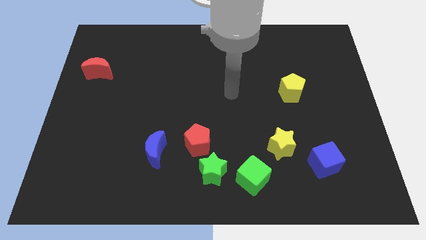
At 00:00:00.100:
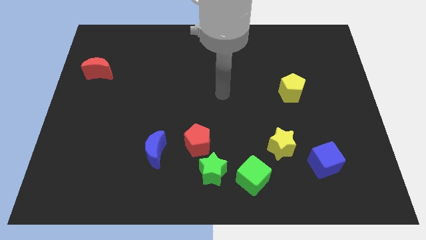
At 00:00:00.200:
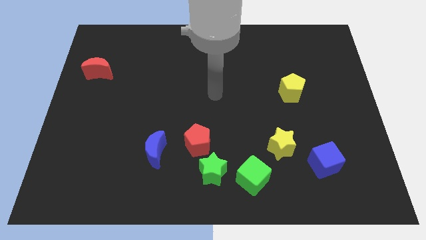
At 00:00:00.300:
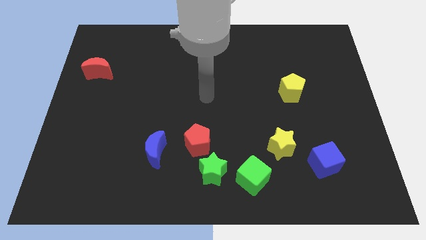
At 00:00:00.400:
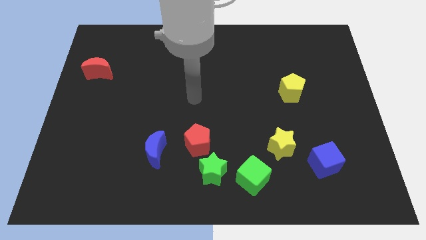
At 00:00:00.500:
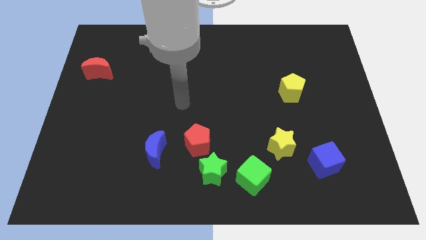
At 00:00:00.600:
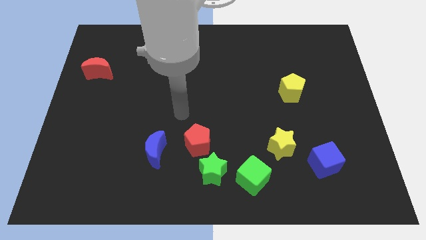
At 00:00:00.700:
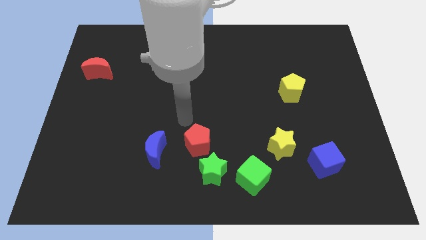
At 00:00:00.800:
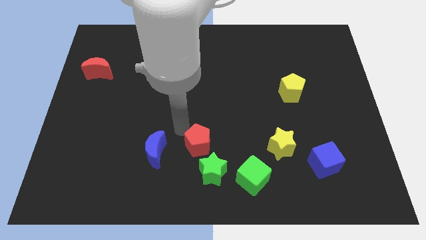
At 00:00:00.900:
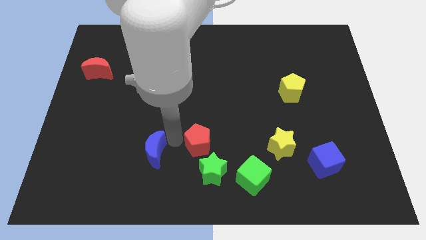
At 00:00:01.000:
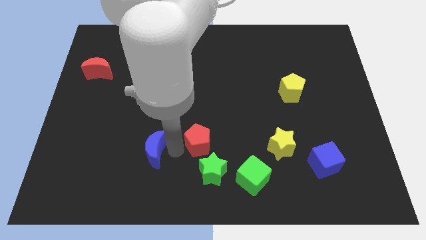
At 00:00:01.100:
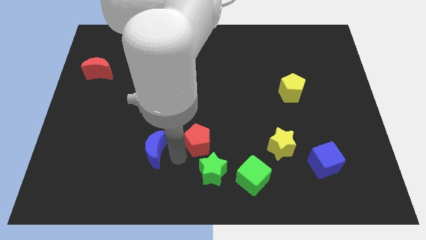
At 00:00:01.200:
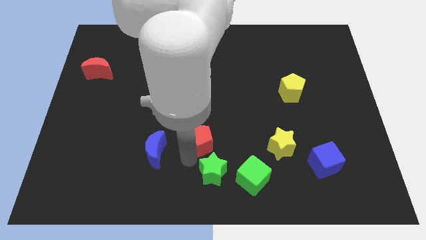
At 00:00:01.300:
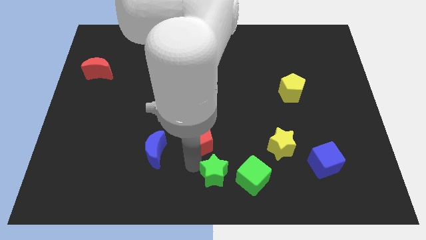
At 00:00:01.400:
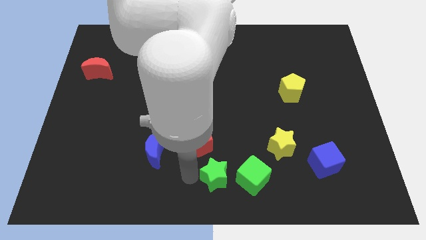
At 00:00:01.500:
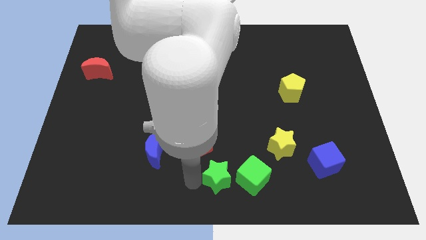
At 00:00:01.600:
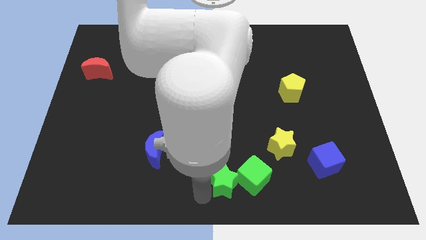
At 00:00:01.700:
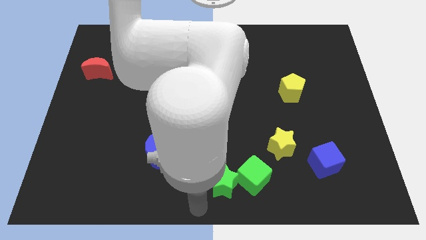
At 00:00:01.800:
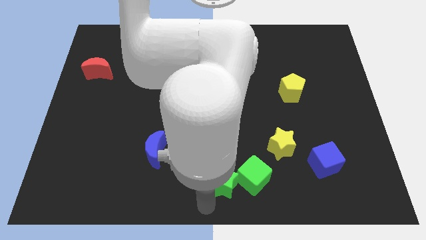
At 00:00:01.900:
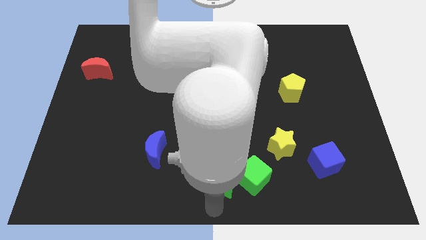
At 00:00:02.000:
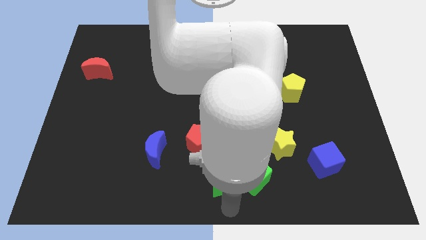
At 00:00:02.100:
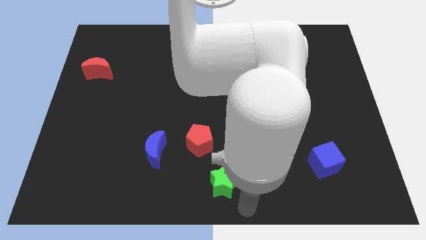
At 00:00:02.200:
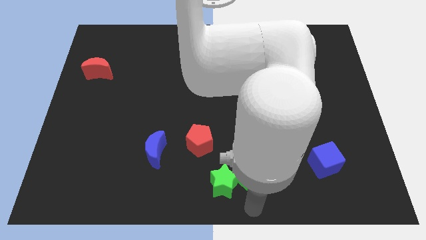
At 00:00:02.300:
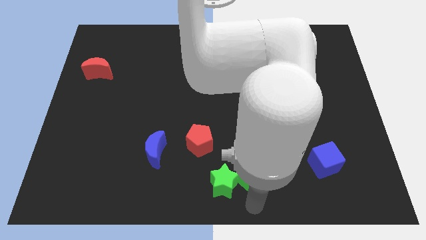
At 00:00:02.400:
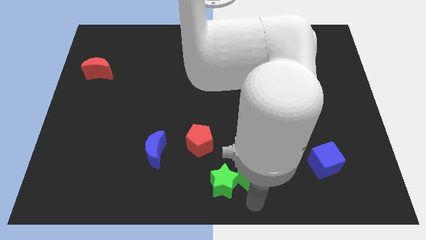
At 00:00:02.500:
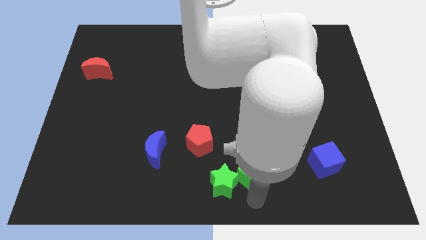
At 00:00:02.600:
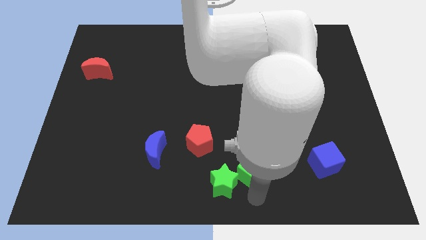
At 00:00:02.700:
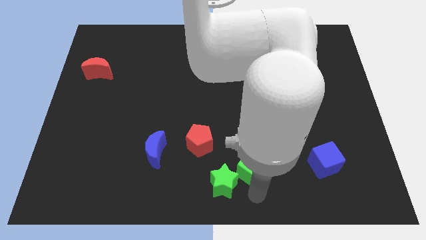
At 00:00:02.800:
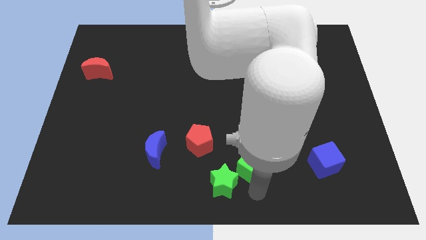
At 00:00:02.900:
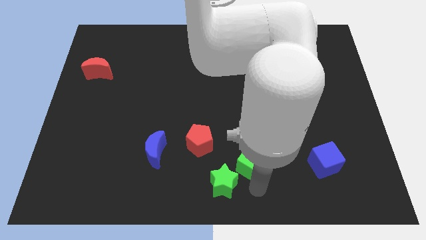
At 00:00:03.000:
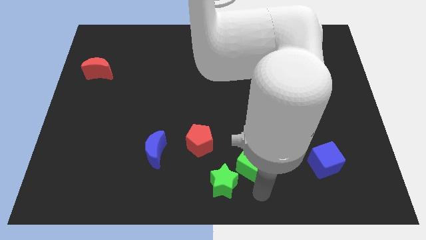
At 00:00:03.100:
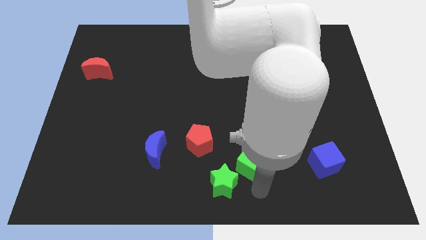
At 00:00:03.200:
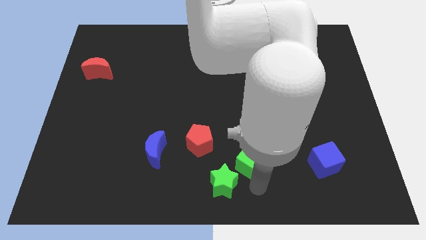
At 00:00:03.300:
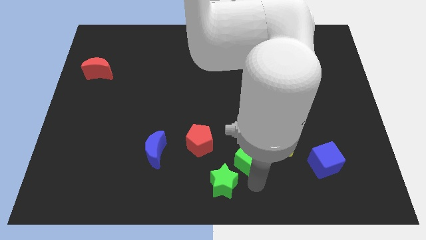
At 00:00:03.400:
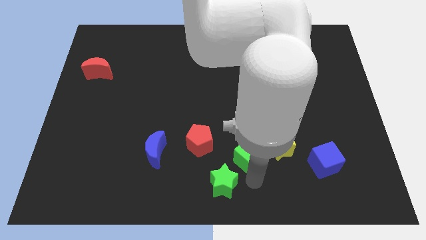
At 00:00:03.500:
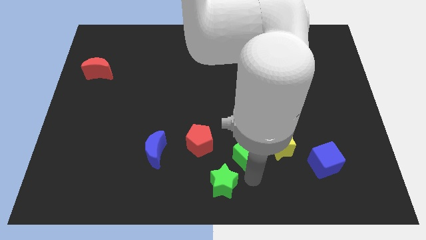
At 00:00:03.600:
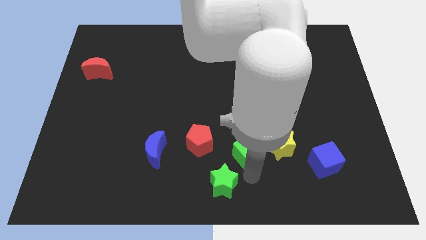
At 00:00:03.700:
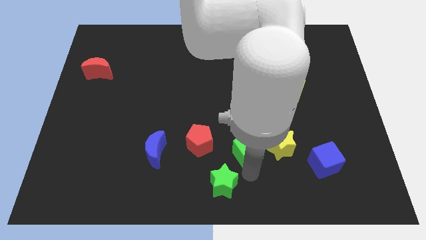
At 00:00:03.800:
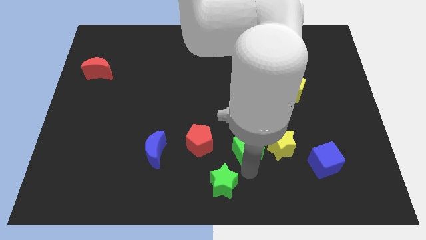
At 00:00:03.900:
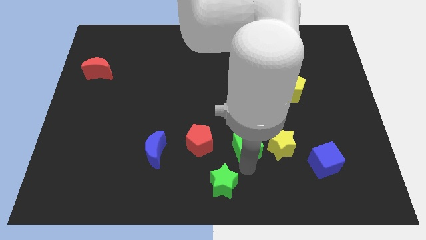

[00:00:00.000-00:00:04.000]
slide the green cube a little bit up

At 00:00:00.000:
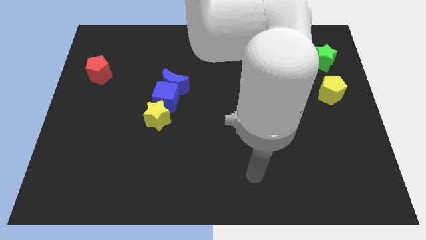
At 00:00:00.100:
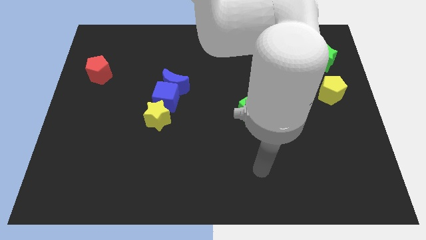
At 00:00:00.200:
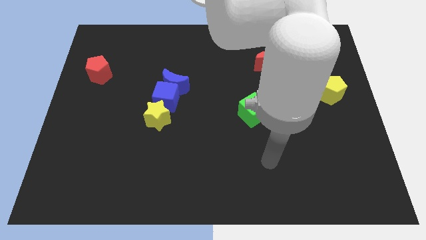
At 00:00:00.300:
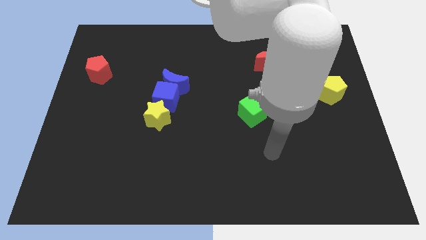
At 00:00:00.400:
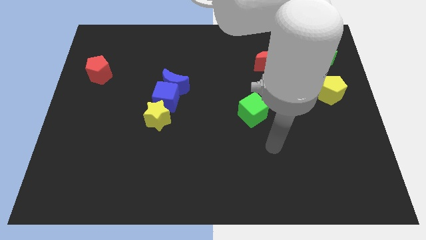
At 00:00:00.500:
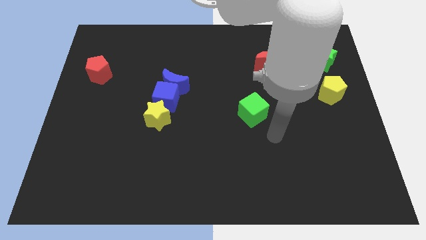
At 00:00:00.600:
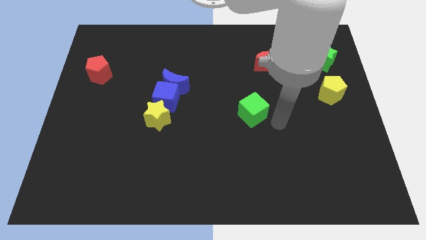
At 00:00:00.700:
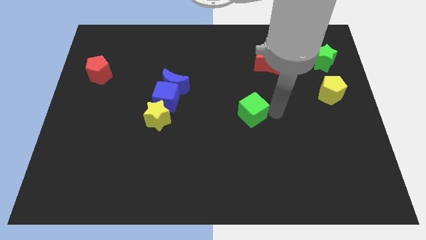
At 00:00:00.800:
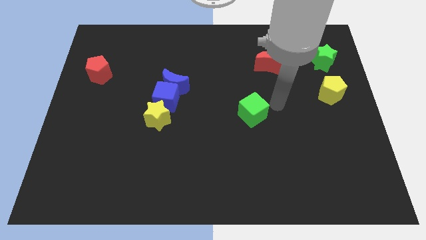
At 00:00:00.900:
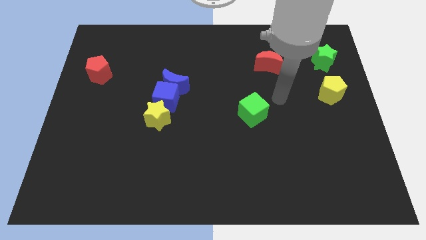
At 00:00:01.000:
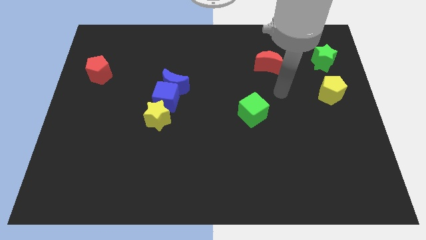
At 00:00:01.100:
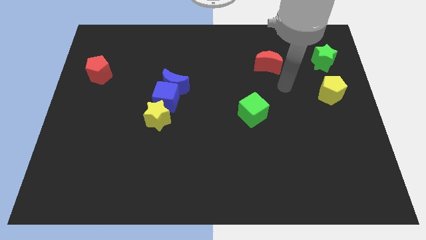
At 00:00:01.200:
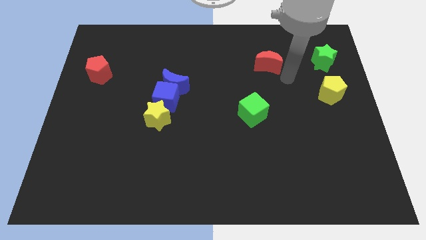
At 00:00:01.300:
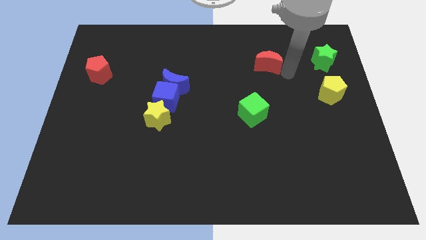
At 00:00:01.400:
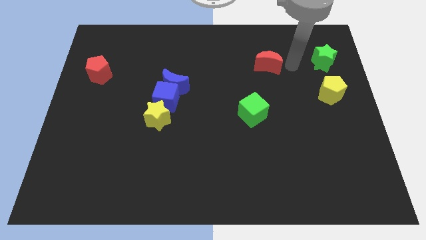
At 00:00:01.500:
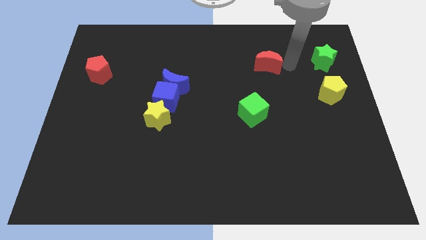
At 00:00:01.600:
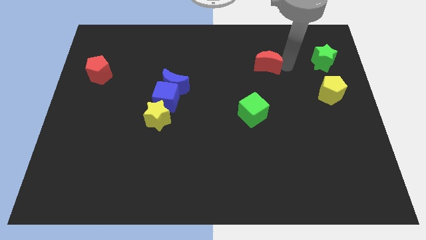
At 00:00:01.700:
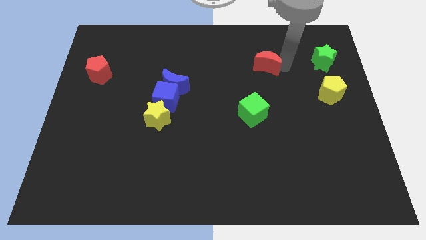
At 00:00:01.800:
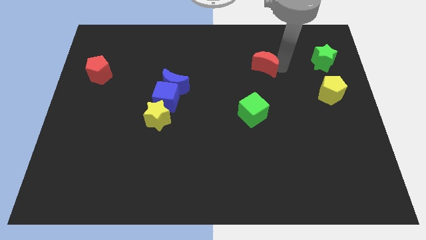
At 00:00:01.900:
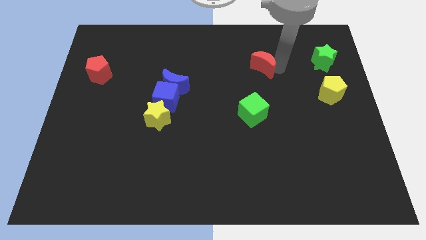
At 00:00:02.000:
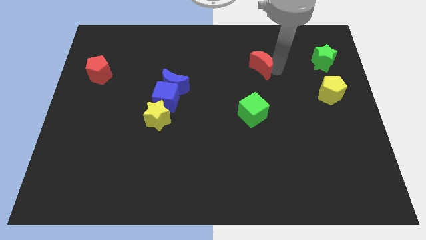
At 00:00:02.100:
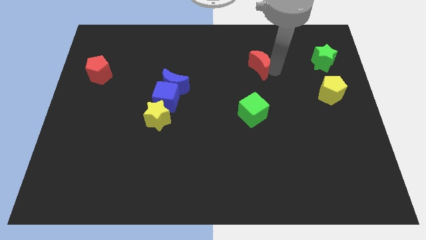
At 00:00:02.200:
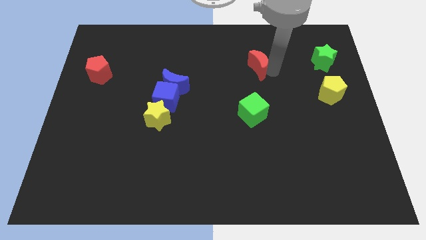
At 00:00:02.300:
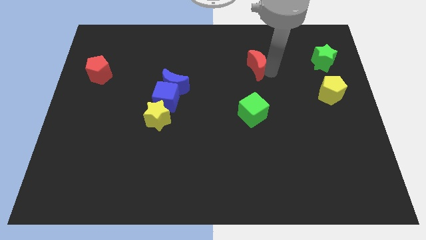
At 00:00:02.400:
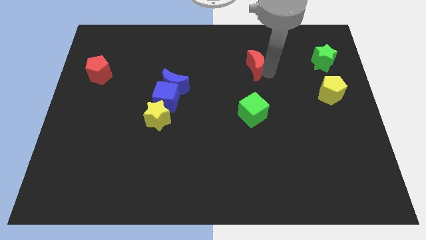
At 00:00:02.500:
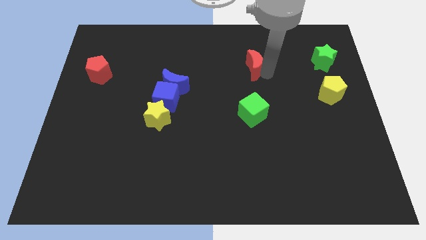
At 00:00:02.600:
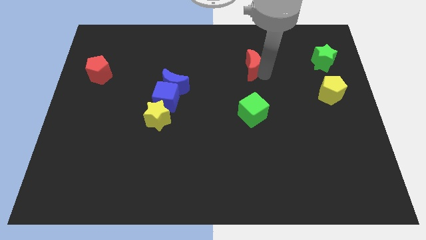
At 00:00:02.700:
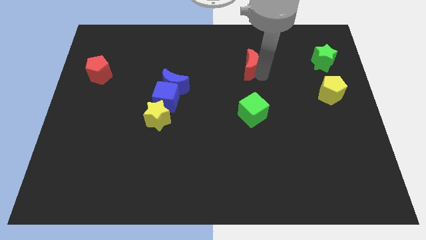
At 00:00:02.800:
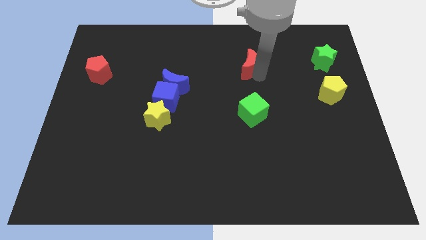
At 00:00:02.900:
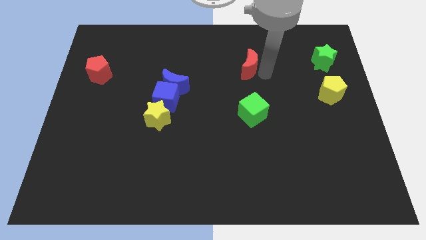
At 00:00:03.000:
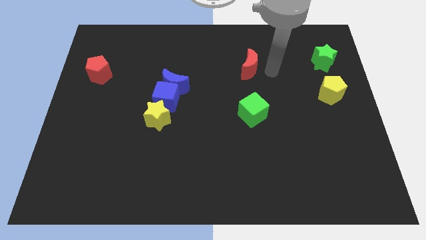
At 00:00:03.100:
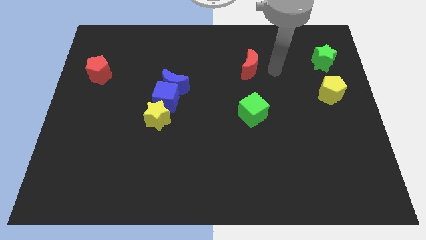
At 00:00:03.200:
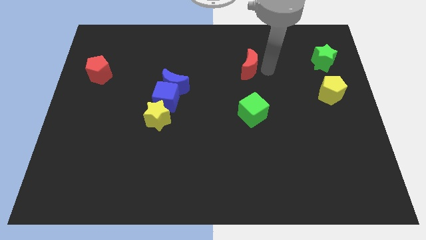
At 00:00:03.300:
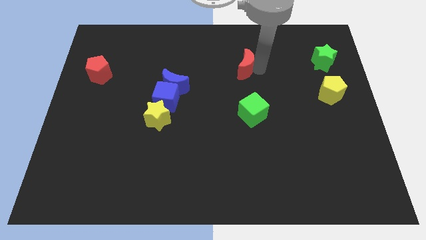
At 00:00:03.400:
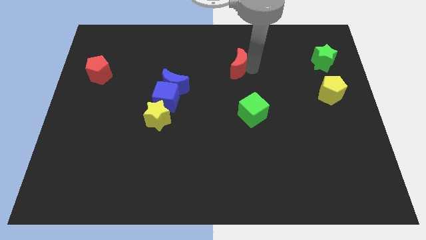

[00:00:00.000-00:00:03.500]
push the red moon left a little bit

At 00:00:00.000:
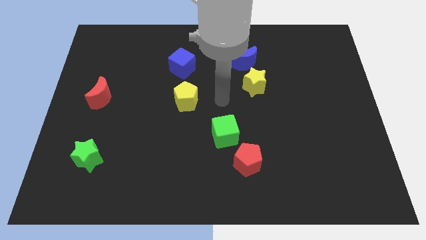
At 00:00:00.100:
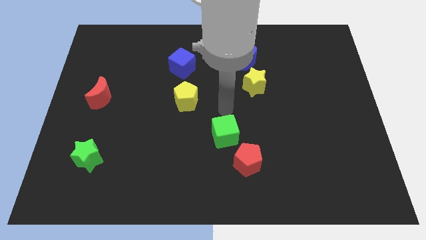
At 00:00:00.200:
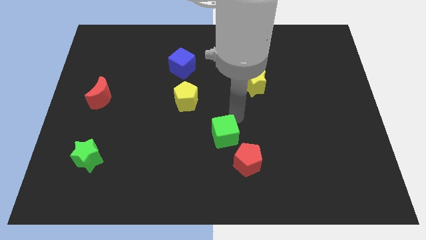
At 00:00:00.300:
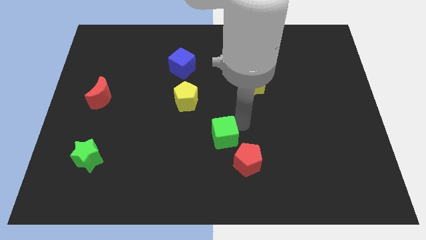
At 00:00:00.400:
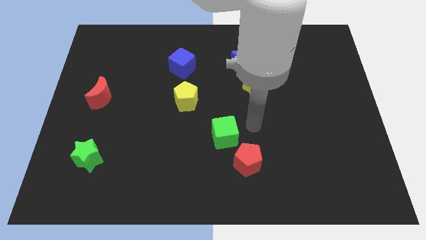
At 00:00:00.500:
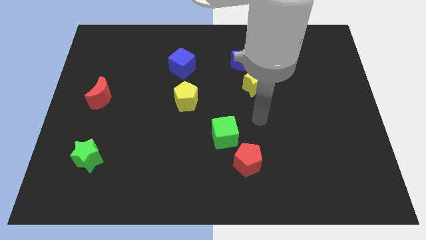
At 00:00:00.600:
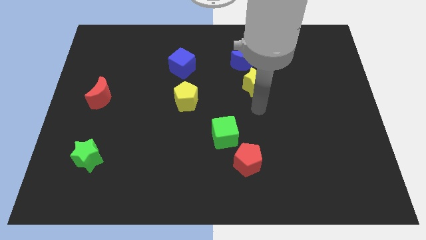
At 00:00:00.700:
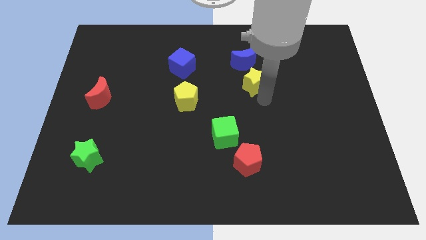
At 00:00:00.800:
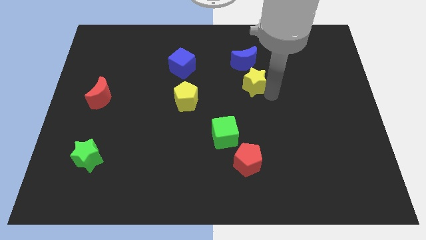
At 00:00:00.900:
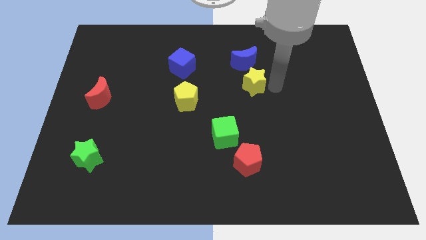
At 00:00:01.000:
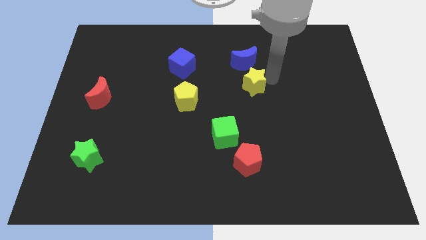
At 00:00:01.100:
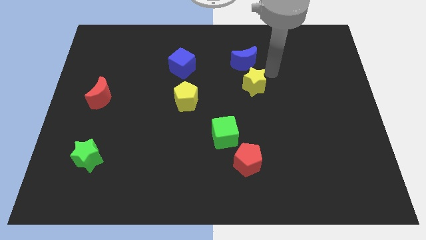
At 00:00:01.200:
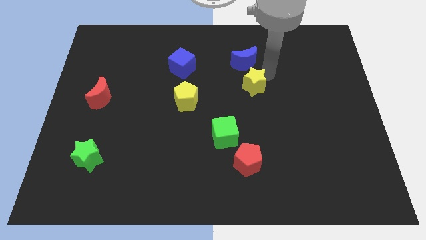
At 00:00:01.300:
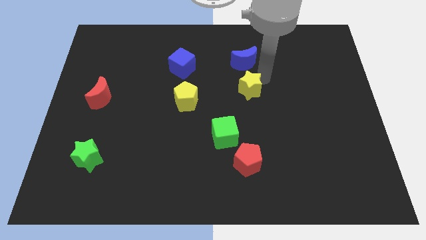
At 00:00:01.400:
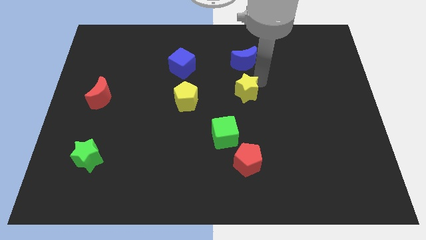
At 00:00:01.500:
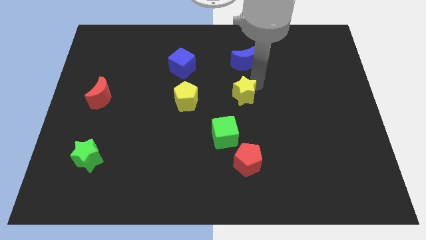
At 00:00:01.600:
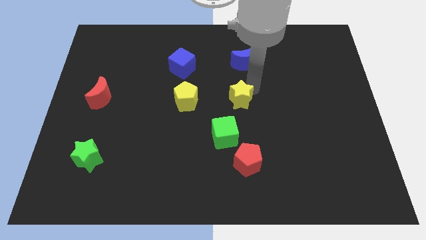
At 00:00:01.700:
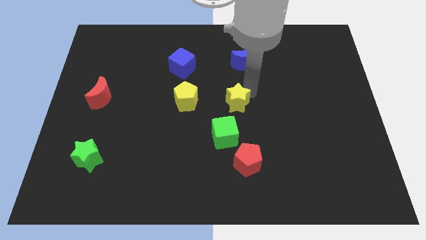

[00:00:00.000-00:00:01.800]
move the yellow star downwards and to the left diagonally somewhat
